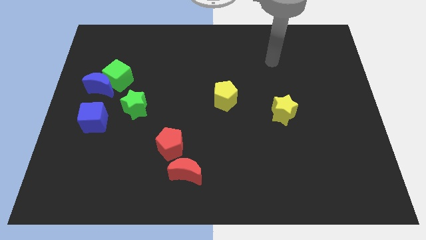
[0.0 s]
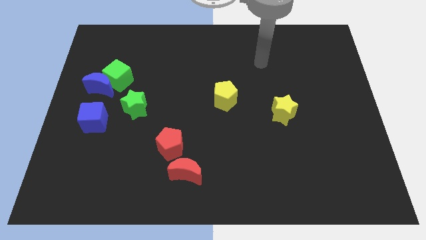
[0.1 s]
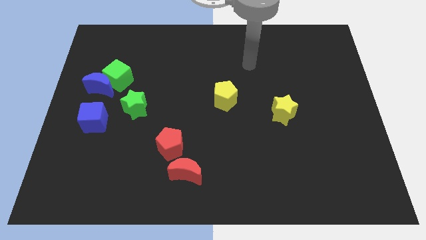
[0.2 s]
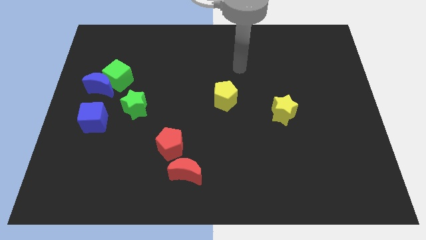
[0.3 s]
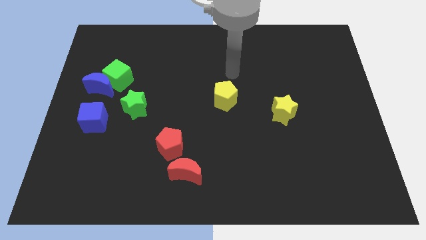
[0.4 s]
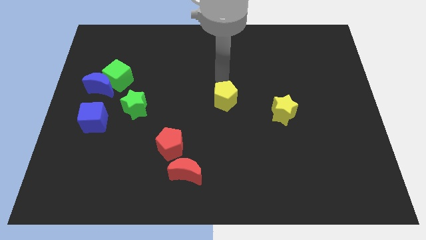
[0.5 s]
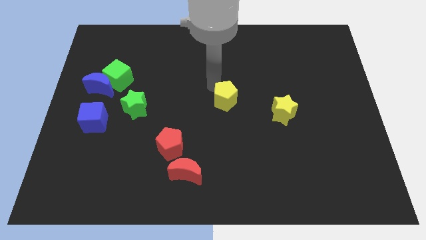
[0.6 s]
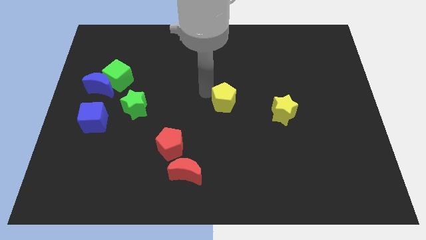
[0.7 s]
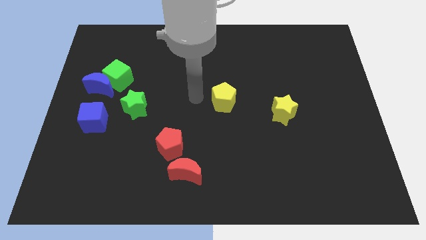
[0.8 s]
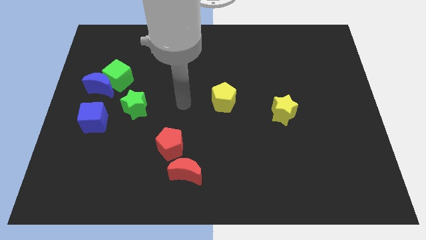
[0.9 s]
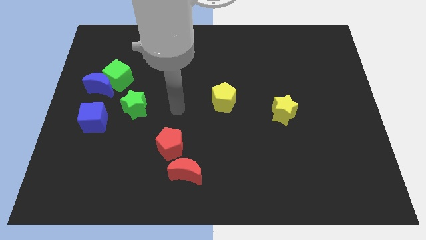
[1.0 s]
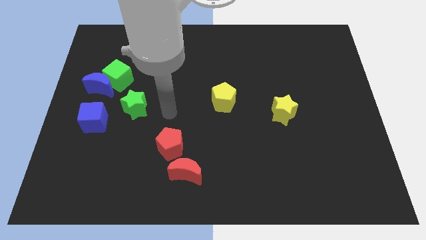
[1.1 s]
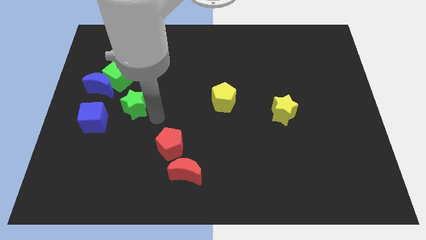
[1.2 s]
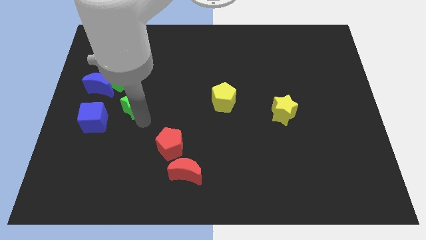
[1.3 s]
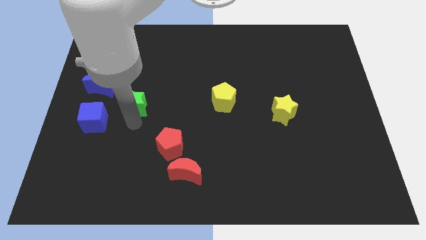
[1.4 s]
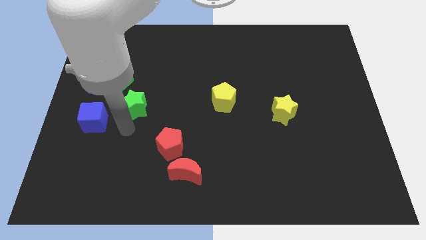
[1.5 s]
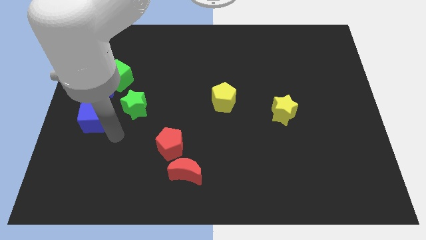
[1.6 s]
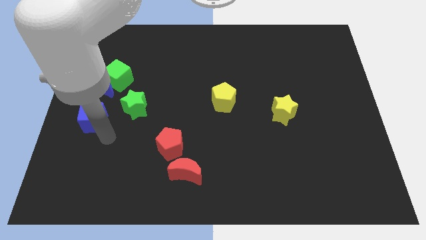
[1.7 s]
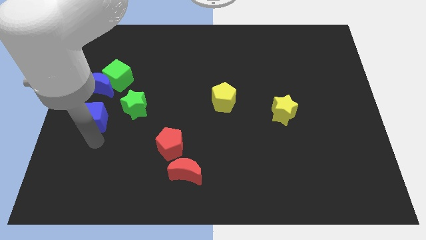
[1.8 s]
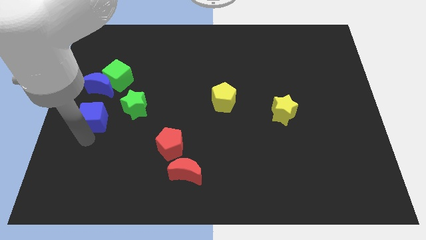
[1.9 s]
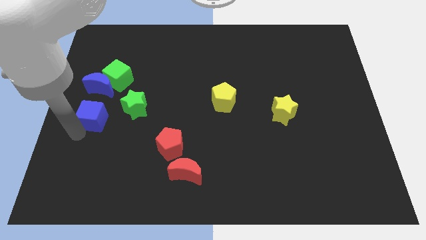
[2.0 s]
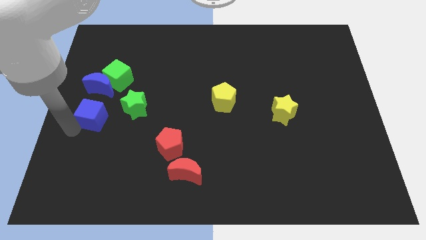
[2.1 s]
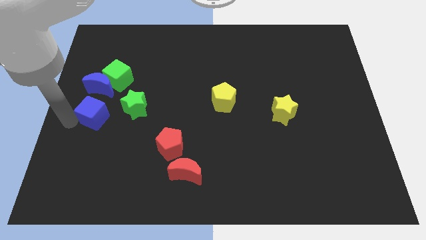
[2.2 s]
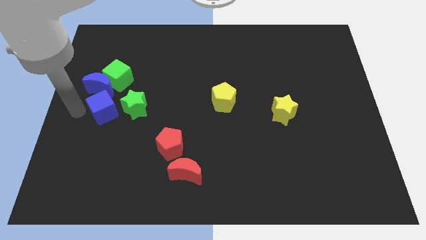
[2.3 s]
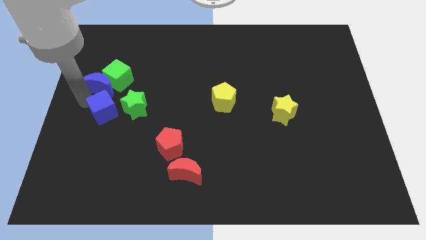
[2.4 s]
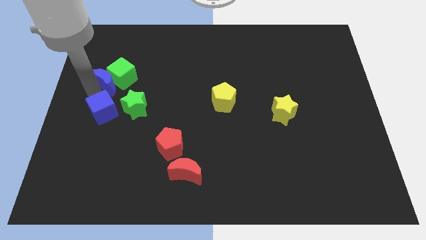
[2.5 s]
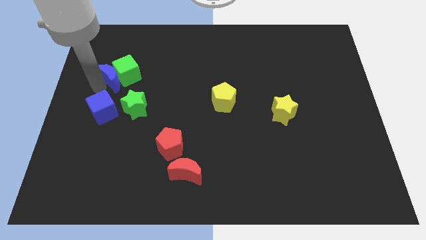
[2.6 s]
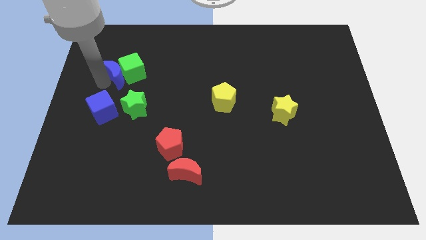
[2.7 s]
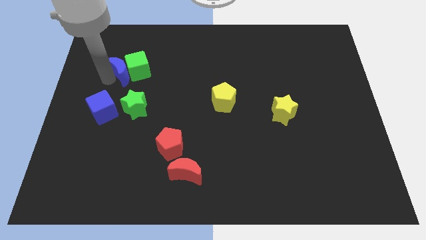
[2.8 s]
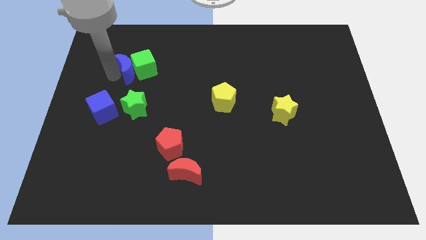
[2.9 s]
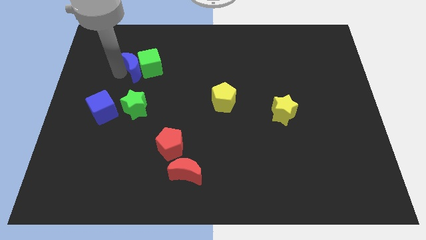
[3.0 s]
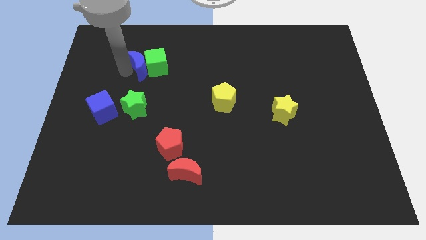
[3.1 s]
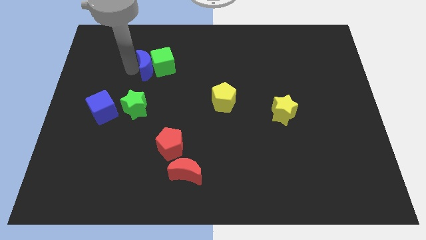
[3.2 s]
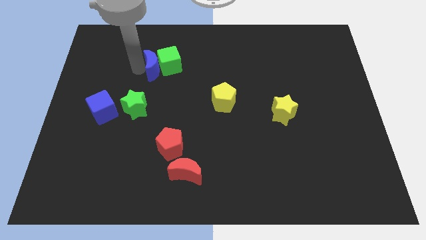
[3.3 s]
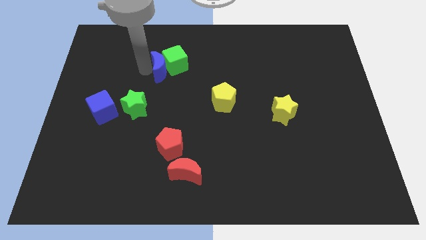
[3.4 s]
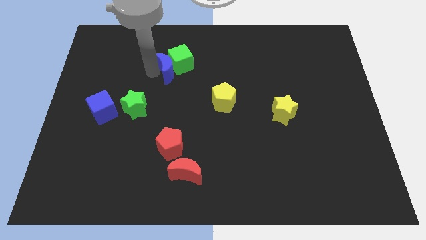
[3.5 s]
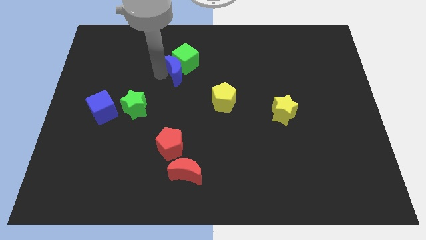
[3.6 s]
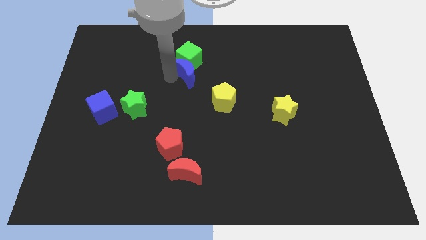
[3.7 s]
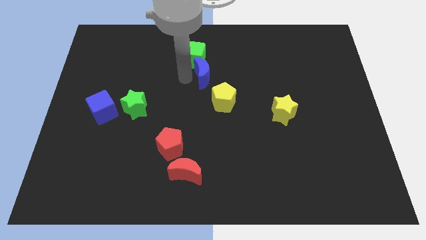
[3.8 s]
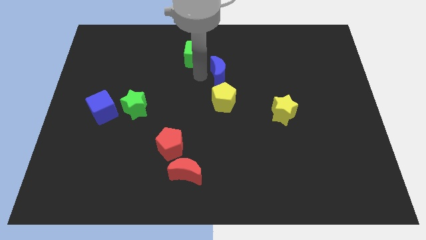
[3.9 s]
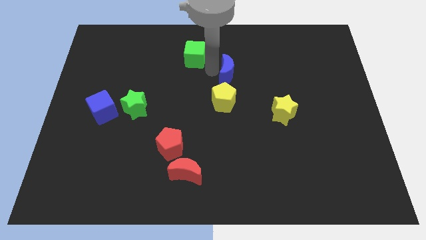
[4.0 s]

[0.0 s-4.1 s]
move the green cube away from the blue moon

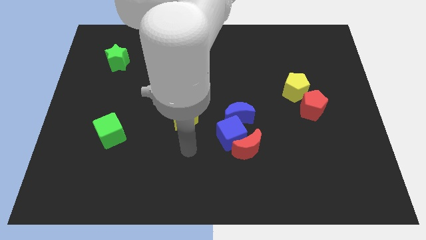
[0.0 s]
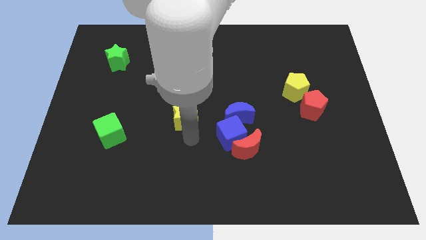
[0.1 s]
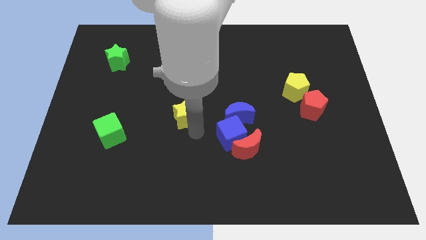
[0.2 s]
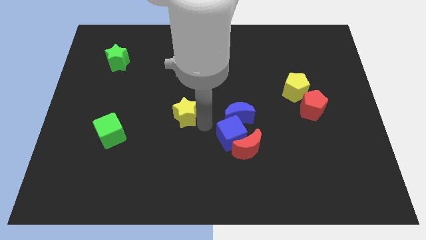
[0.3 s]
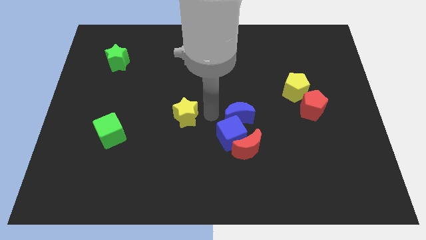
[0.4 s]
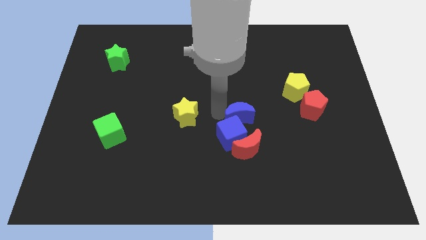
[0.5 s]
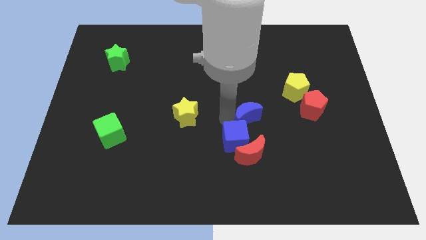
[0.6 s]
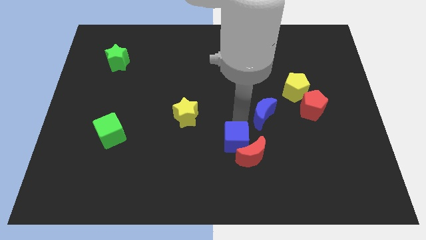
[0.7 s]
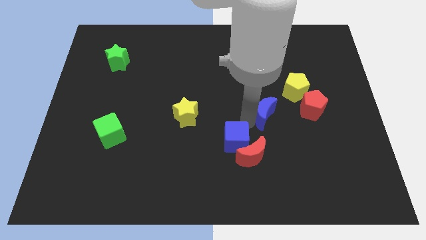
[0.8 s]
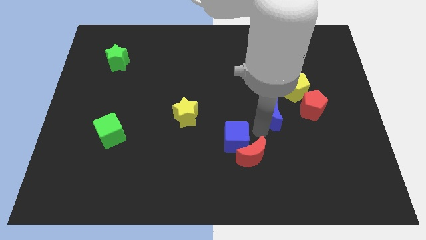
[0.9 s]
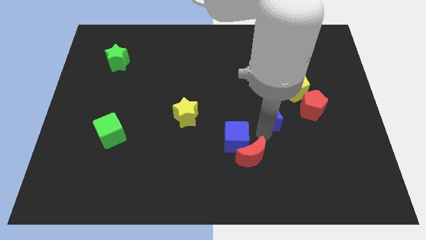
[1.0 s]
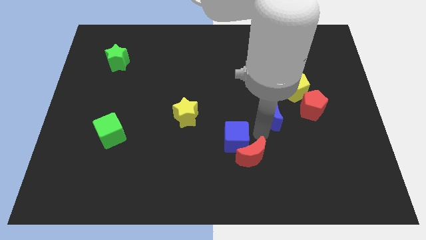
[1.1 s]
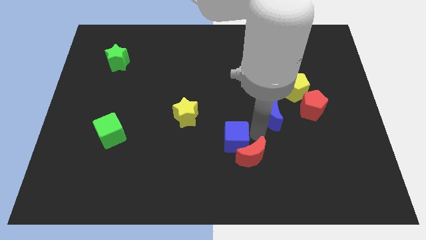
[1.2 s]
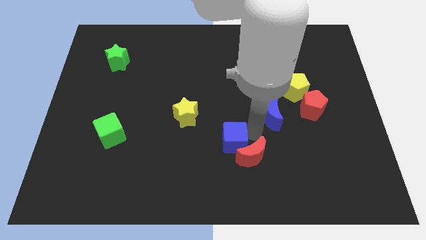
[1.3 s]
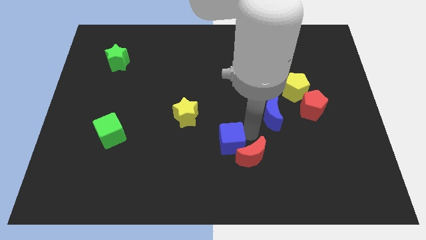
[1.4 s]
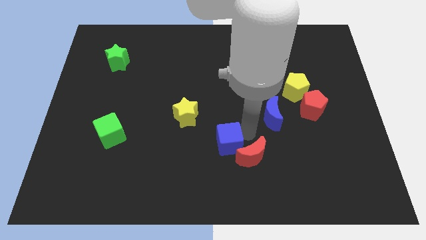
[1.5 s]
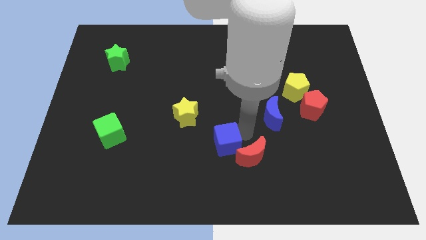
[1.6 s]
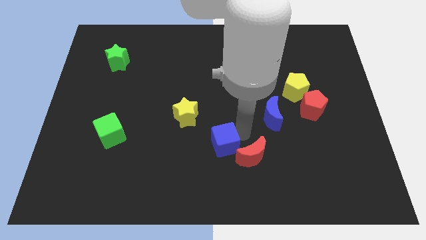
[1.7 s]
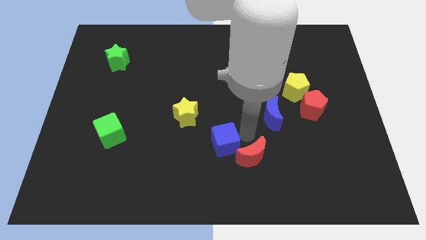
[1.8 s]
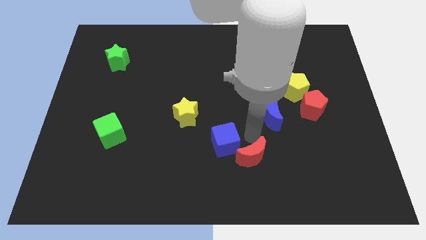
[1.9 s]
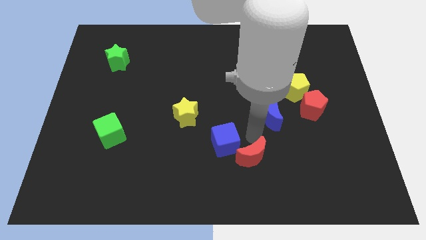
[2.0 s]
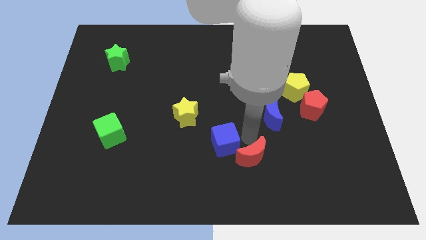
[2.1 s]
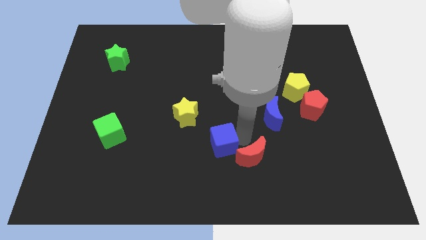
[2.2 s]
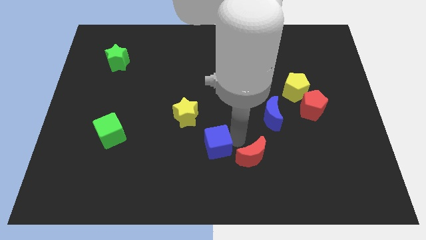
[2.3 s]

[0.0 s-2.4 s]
move the blue cube away from the red moon and blue moon

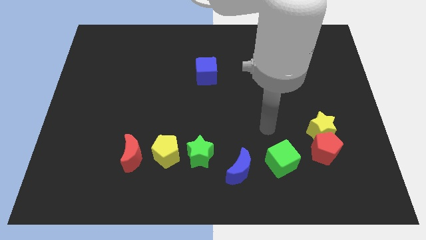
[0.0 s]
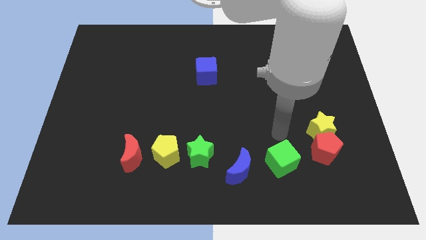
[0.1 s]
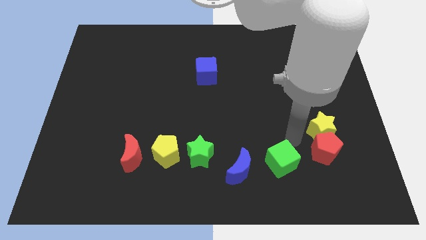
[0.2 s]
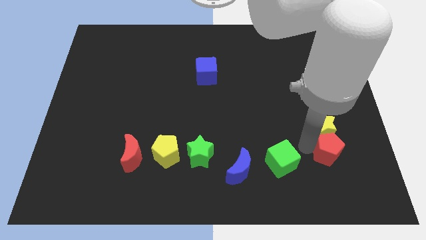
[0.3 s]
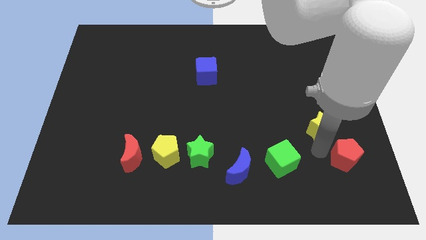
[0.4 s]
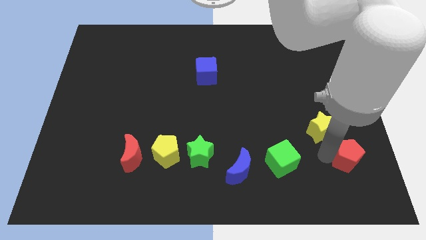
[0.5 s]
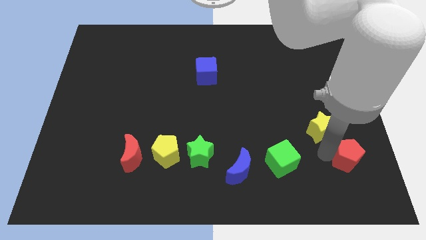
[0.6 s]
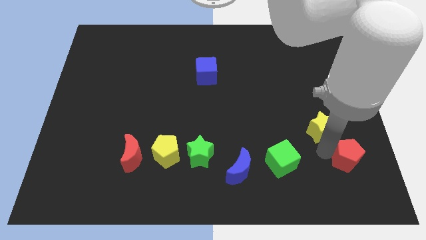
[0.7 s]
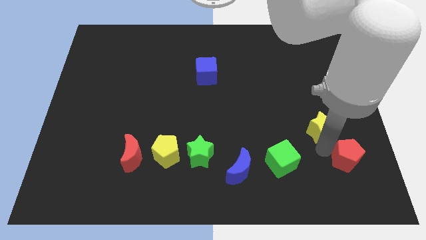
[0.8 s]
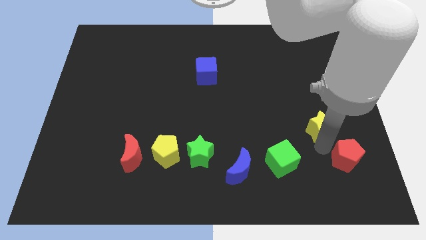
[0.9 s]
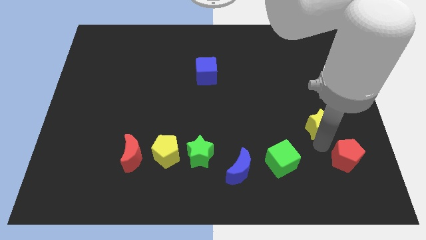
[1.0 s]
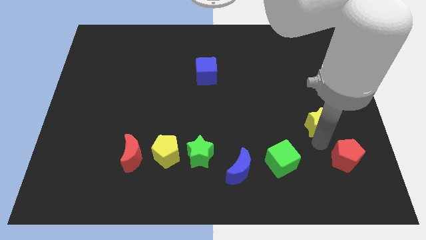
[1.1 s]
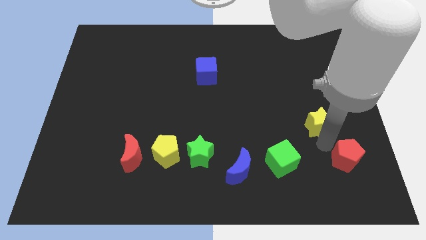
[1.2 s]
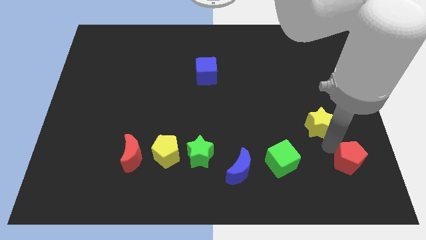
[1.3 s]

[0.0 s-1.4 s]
separate the yellow star from the red pentagon

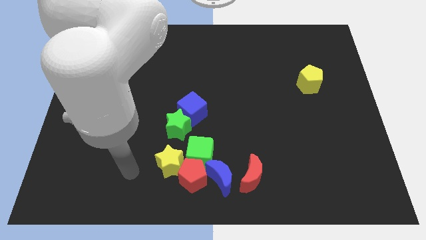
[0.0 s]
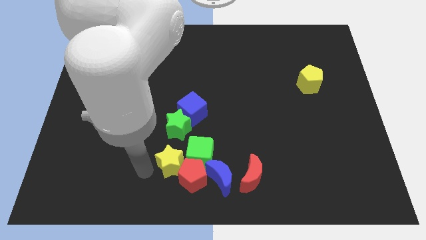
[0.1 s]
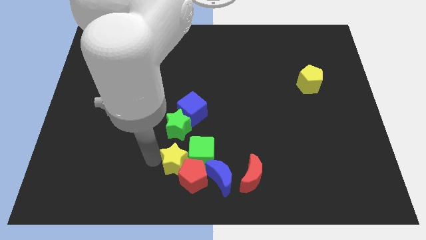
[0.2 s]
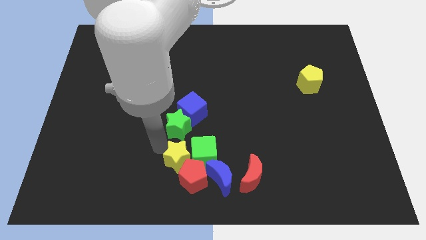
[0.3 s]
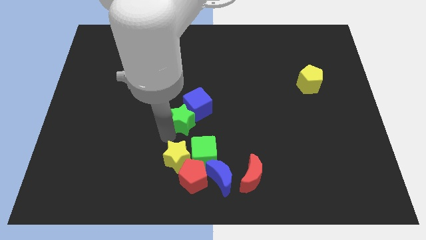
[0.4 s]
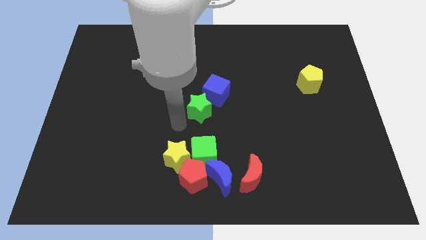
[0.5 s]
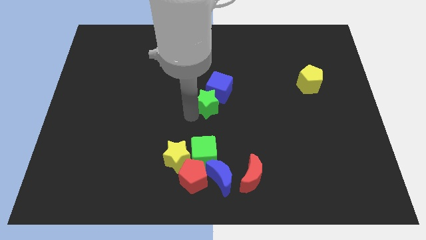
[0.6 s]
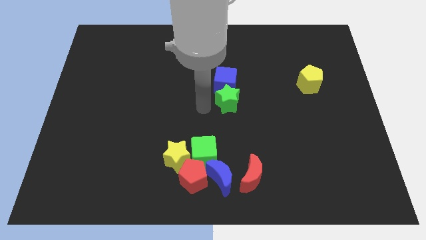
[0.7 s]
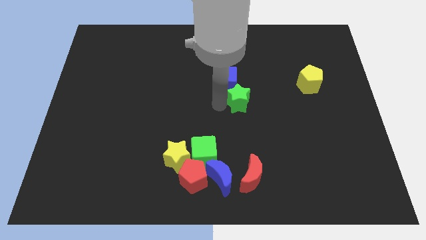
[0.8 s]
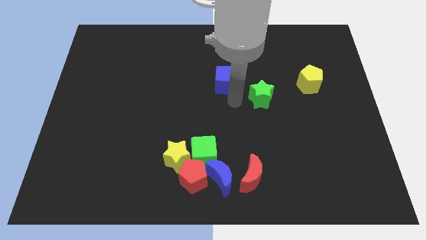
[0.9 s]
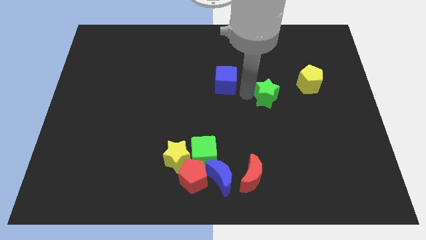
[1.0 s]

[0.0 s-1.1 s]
pull the blue cube apart from the green star

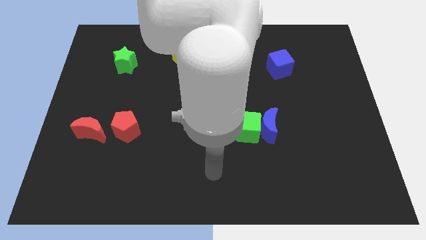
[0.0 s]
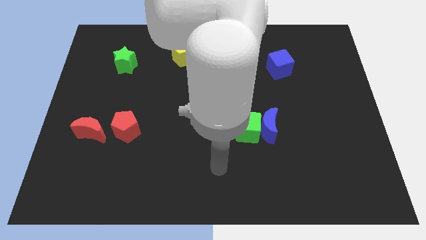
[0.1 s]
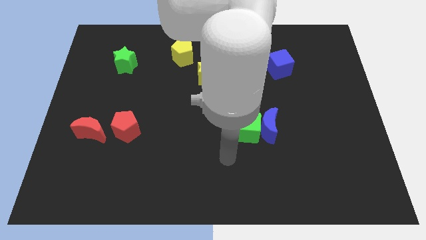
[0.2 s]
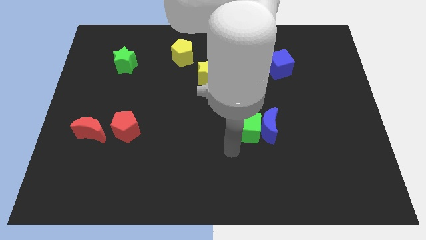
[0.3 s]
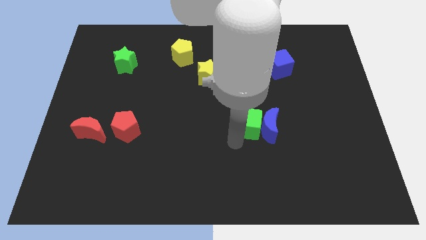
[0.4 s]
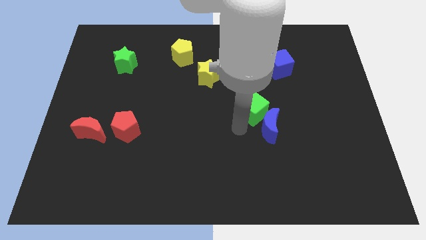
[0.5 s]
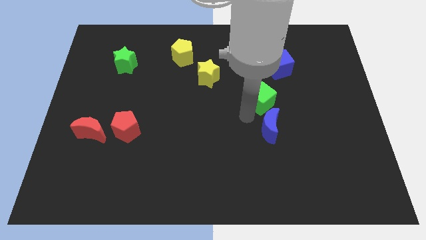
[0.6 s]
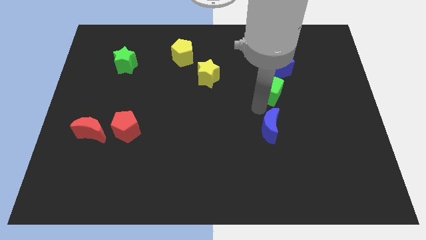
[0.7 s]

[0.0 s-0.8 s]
pull the blue moon apart from the green cube
